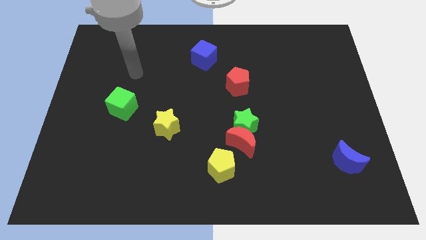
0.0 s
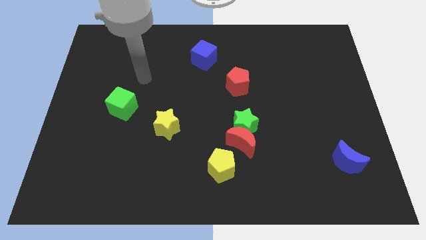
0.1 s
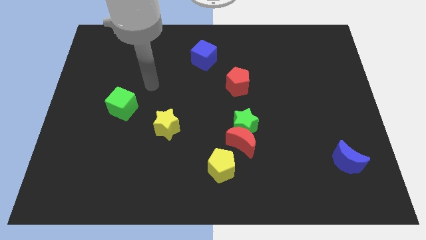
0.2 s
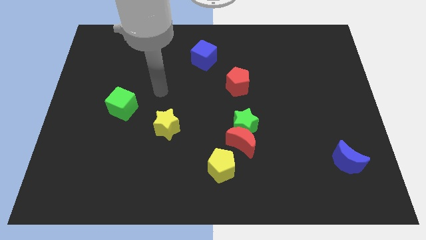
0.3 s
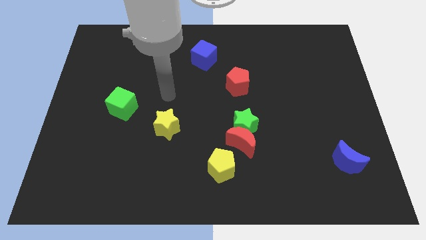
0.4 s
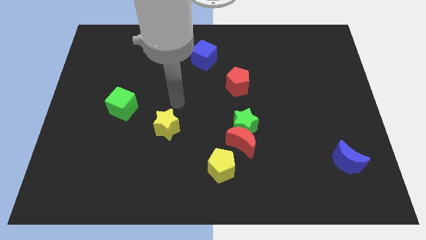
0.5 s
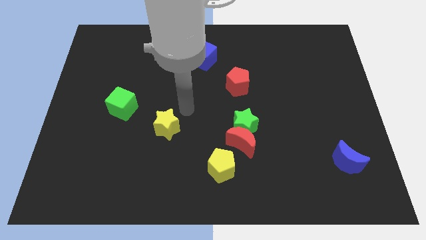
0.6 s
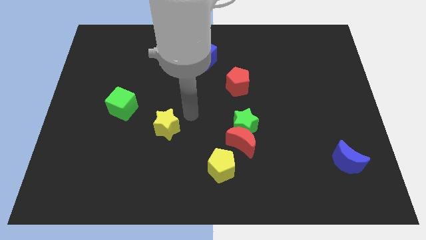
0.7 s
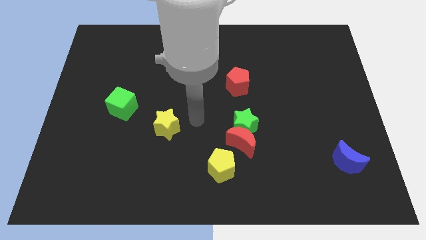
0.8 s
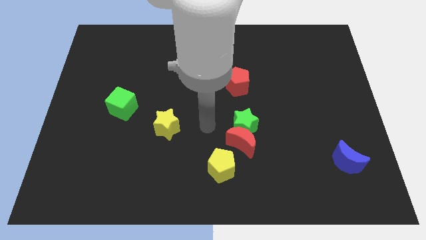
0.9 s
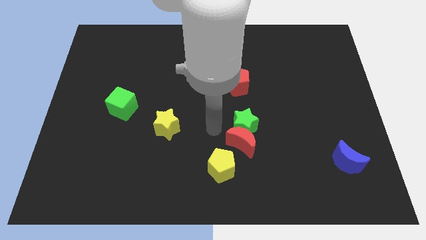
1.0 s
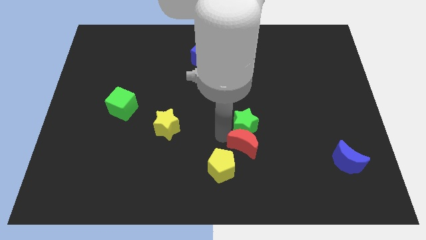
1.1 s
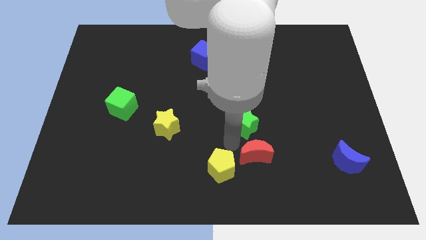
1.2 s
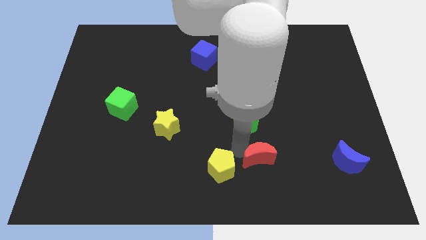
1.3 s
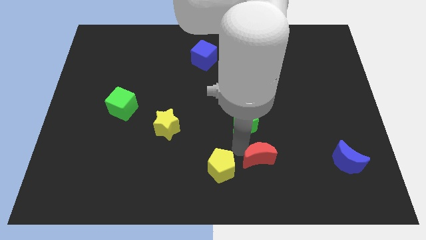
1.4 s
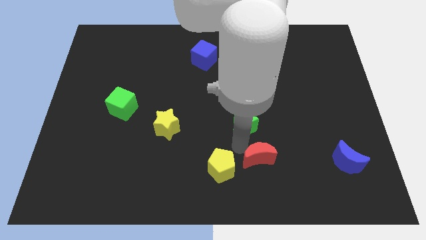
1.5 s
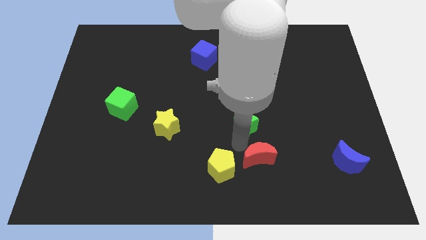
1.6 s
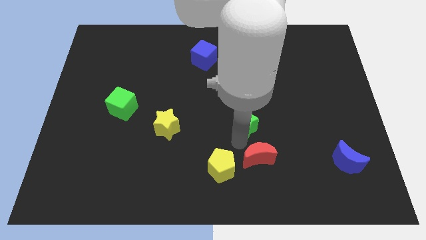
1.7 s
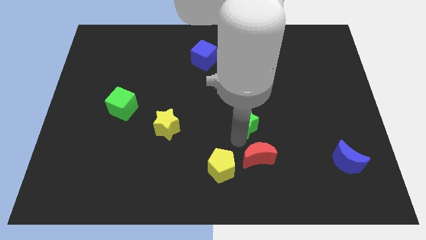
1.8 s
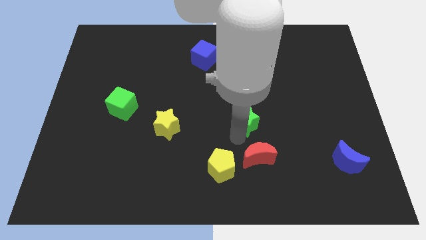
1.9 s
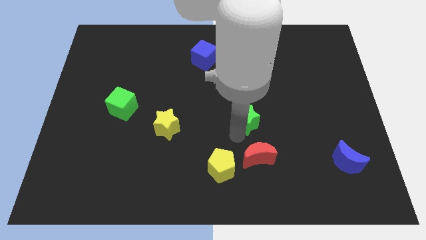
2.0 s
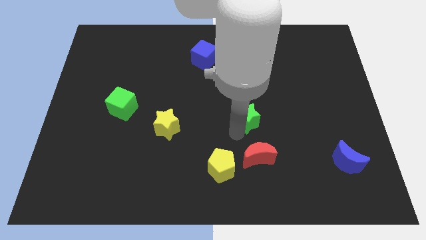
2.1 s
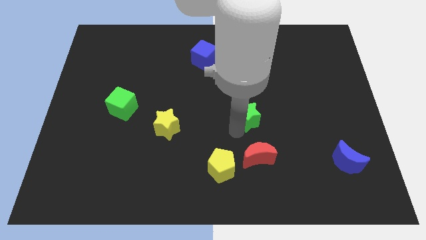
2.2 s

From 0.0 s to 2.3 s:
pull the green star apart from the red moon

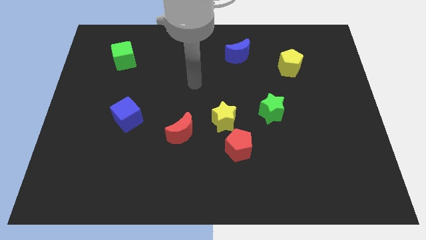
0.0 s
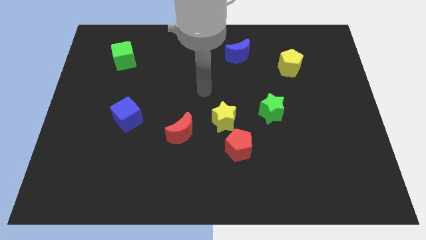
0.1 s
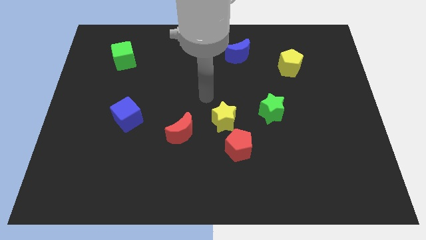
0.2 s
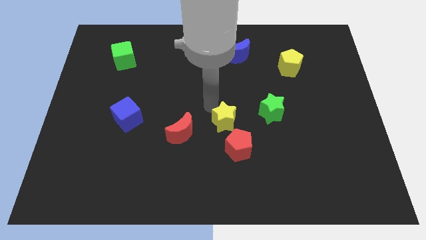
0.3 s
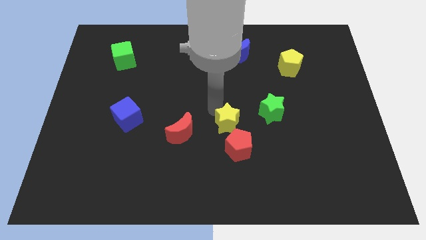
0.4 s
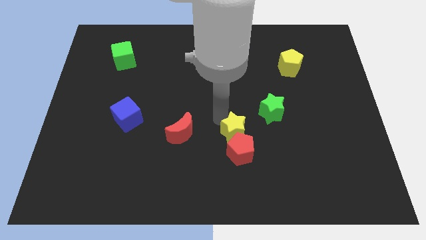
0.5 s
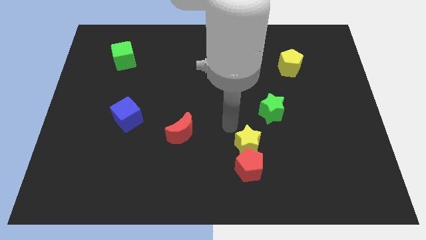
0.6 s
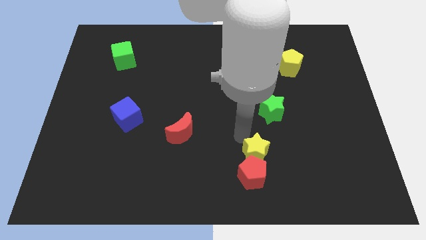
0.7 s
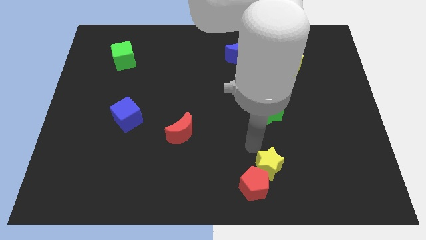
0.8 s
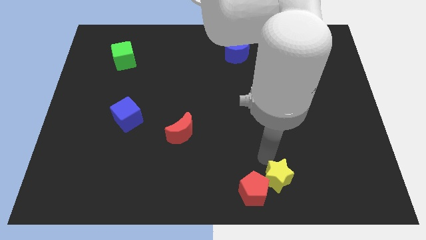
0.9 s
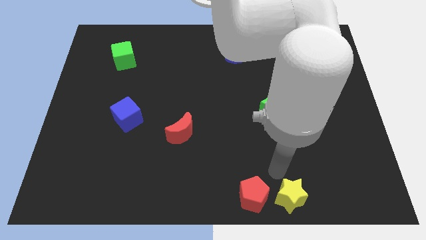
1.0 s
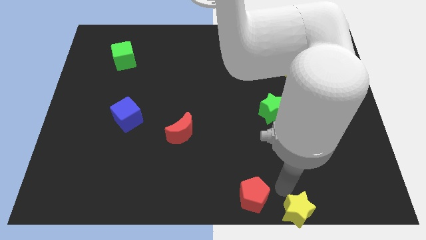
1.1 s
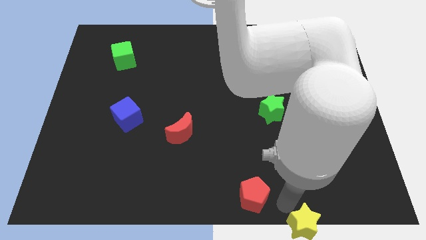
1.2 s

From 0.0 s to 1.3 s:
pull the red pentagon apart from the yellow star

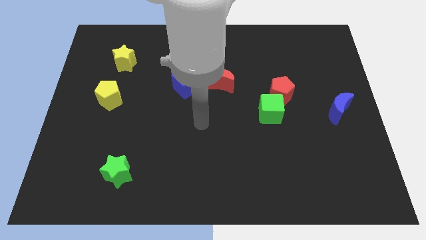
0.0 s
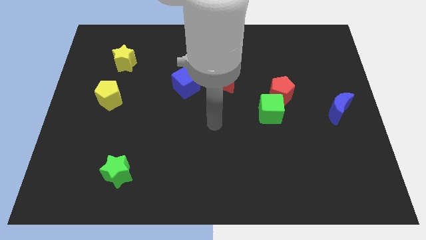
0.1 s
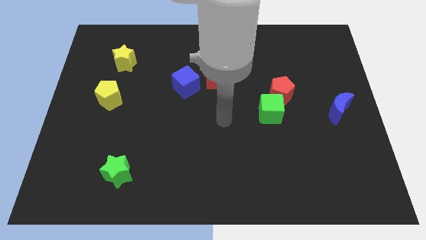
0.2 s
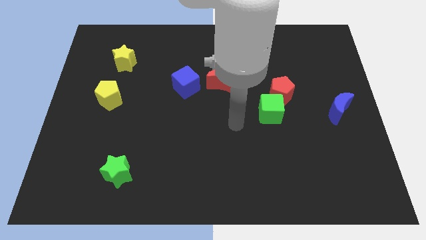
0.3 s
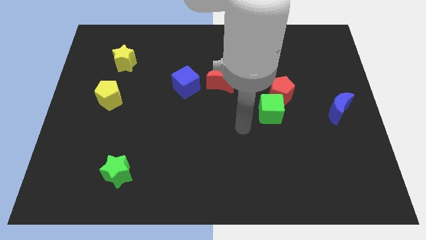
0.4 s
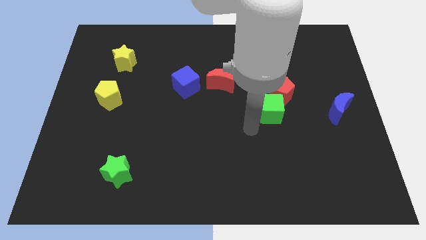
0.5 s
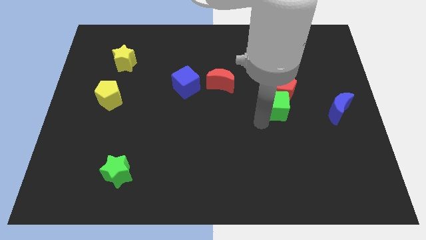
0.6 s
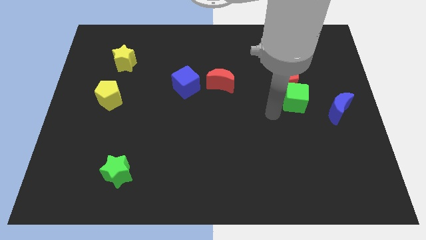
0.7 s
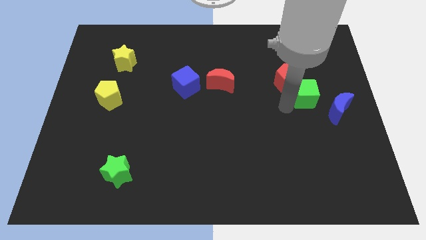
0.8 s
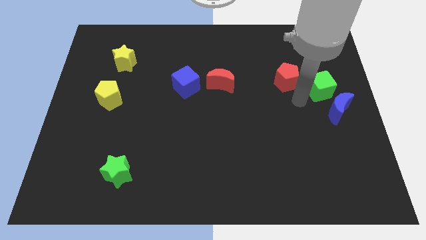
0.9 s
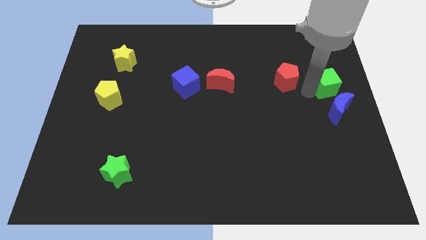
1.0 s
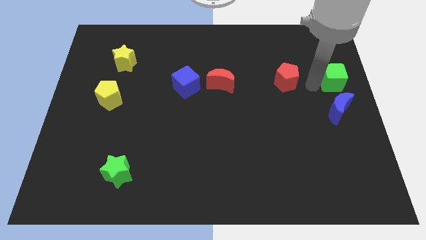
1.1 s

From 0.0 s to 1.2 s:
pull the red pentagon apart from the green cube

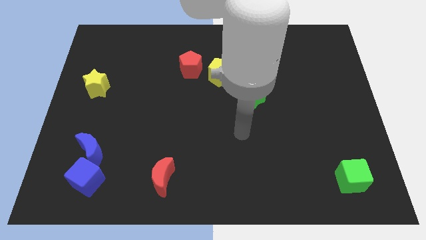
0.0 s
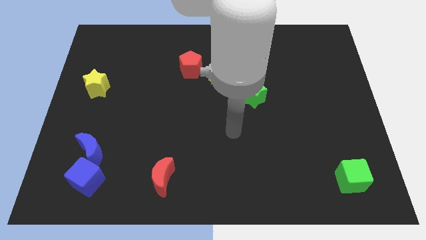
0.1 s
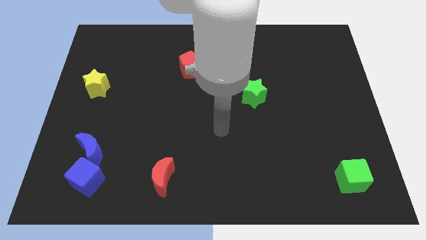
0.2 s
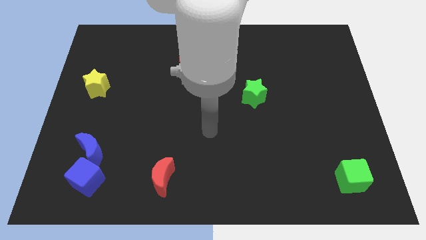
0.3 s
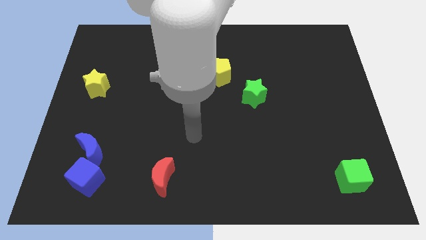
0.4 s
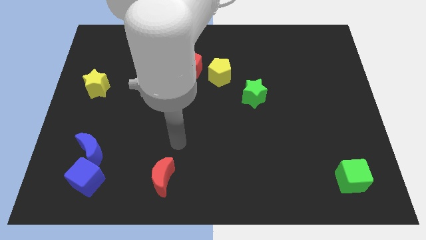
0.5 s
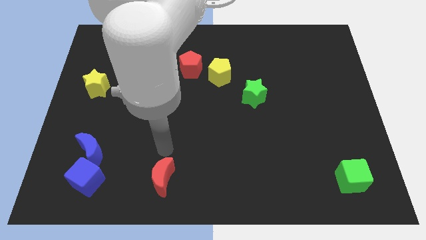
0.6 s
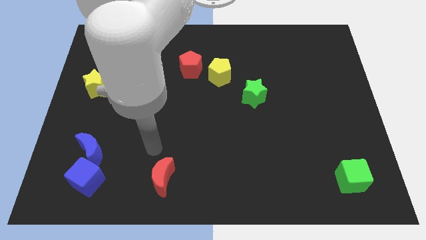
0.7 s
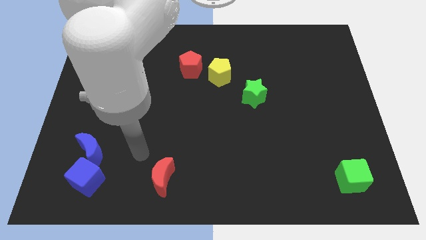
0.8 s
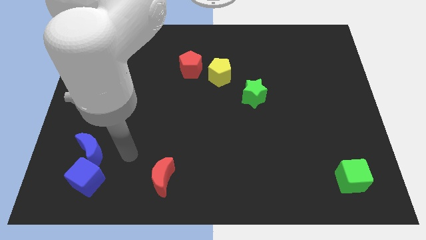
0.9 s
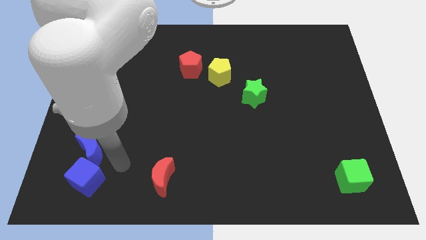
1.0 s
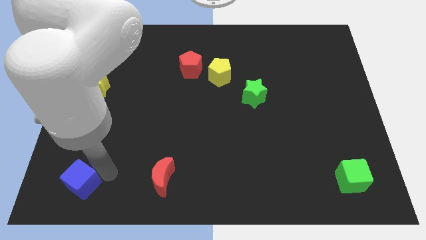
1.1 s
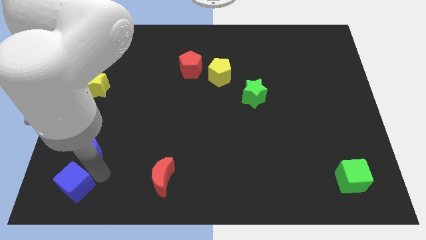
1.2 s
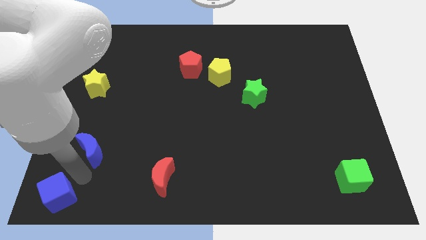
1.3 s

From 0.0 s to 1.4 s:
move the blue moon away from the blue cube

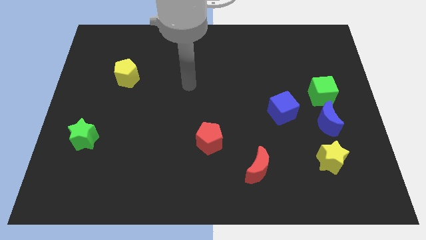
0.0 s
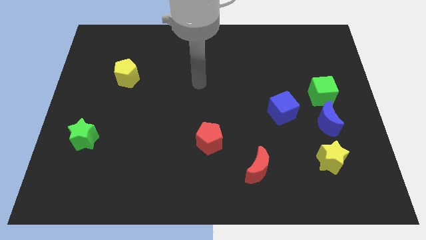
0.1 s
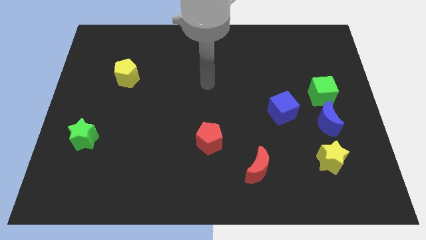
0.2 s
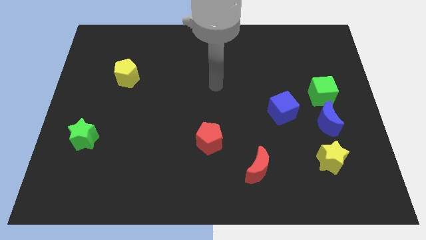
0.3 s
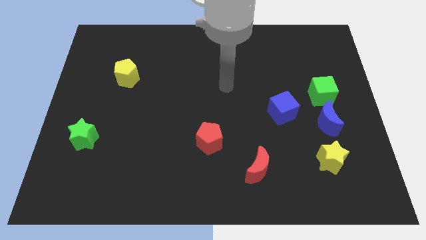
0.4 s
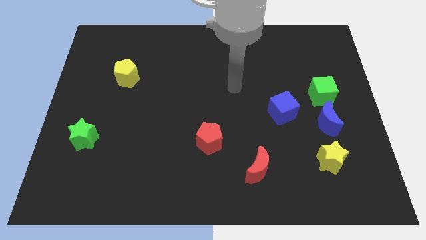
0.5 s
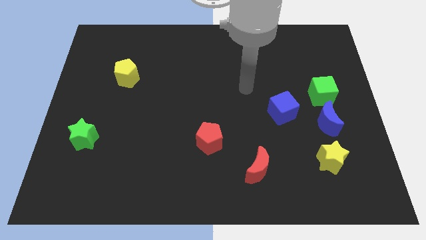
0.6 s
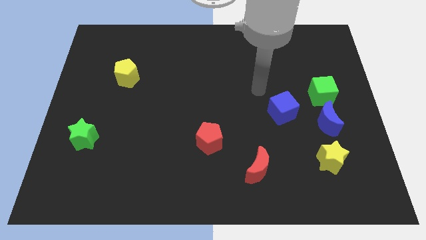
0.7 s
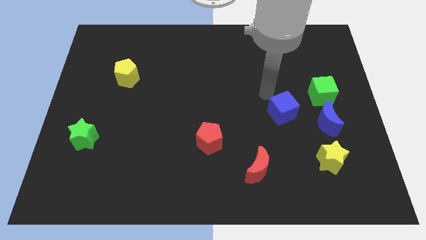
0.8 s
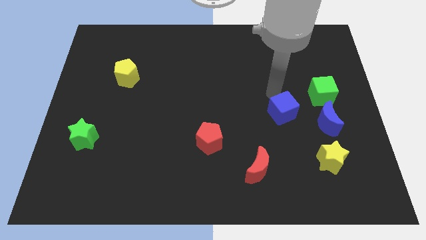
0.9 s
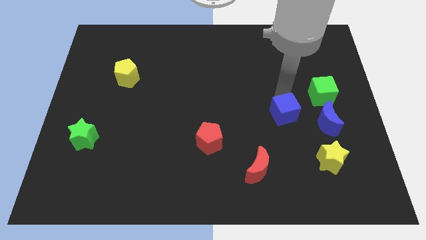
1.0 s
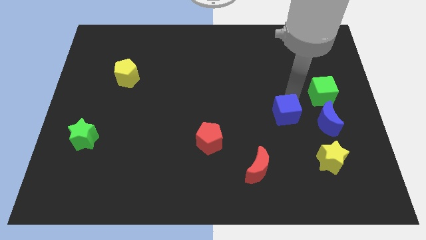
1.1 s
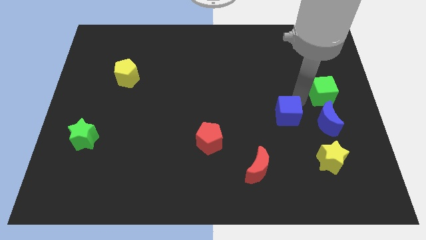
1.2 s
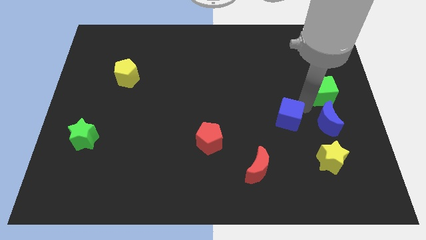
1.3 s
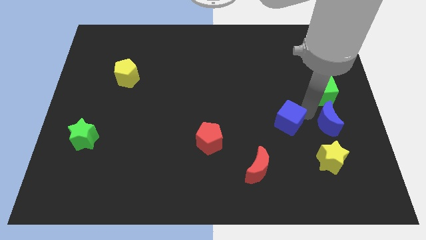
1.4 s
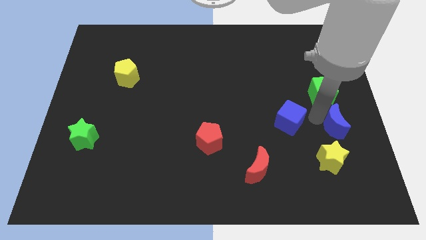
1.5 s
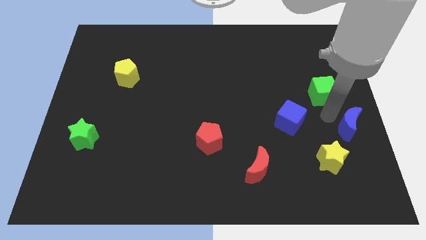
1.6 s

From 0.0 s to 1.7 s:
pull the green cube apart from the blue moon

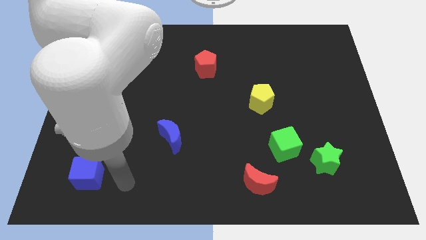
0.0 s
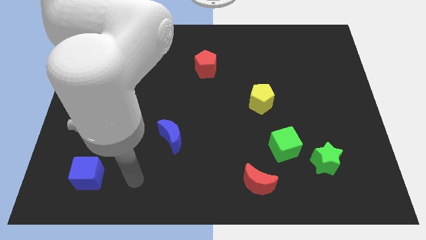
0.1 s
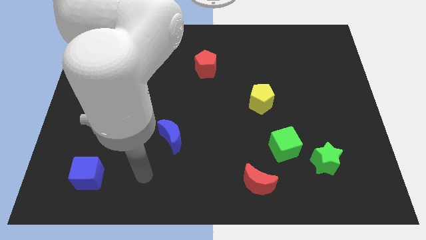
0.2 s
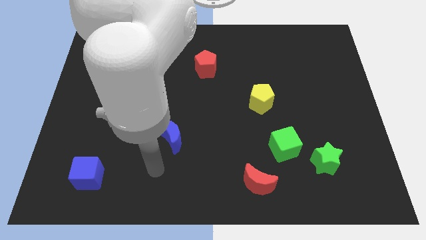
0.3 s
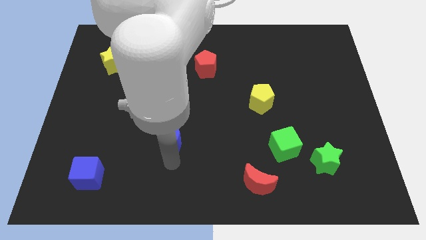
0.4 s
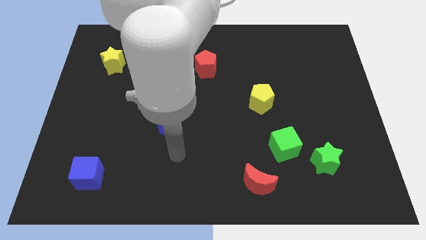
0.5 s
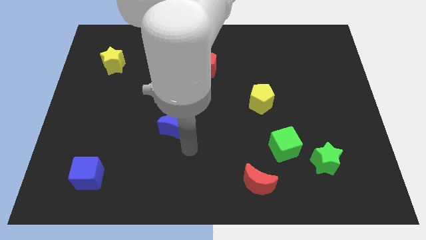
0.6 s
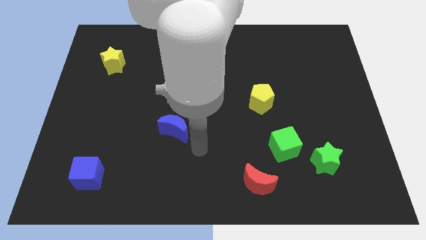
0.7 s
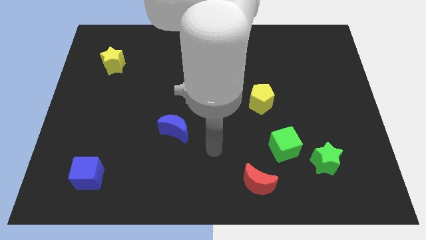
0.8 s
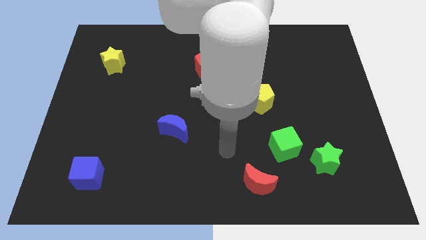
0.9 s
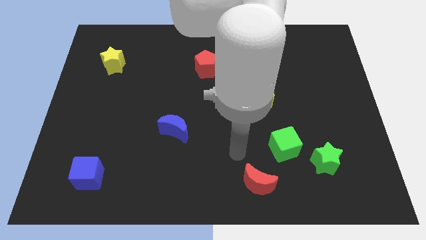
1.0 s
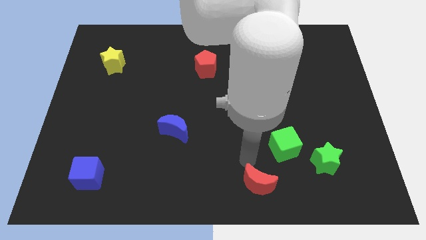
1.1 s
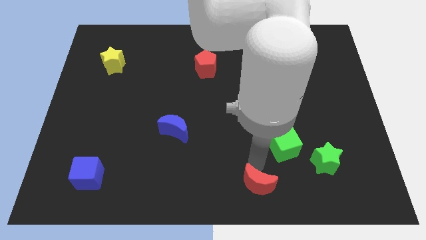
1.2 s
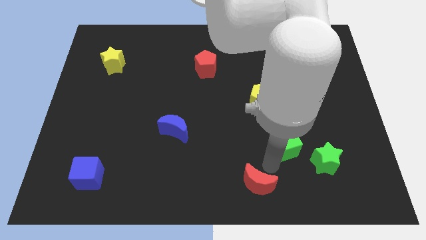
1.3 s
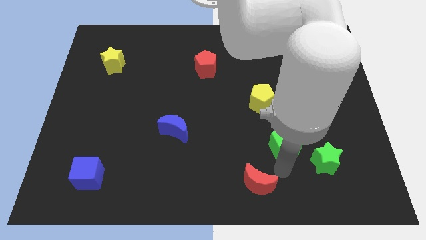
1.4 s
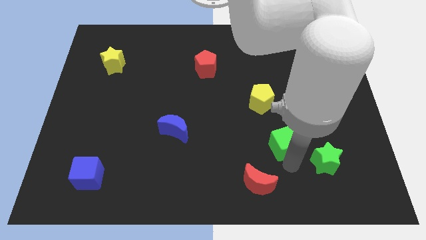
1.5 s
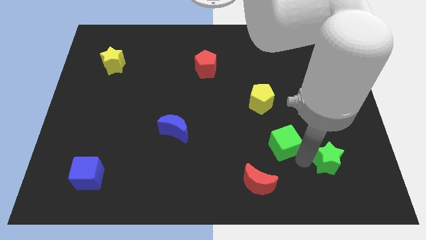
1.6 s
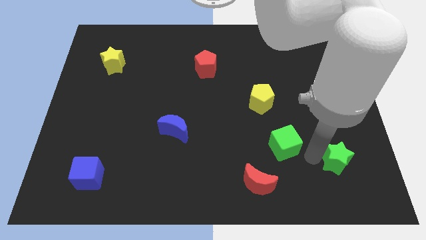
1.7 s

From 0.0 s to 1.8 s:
separate the green cube from the green star
